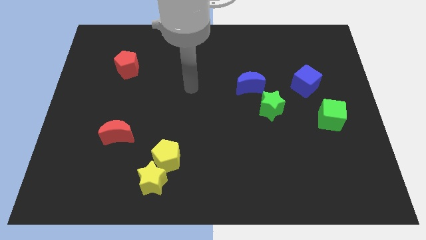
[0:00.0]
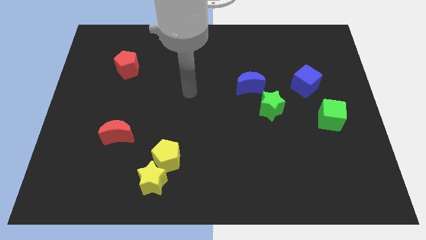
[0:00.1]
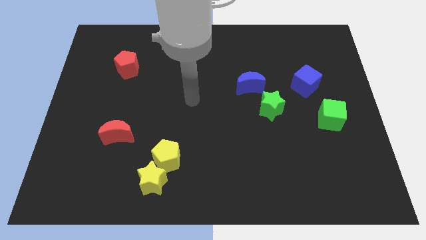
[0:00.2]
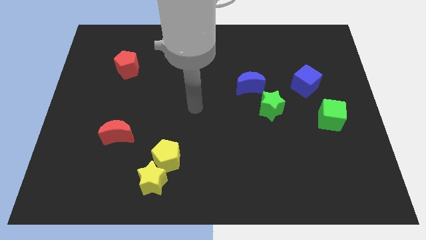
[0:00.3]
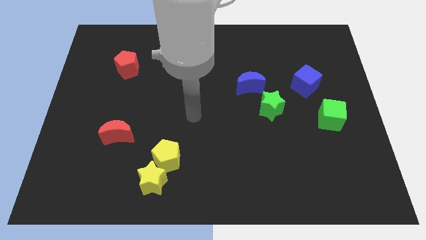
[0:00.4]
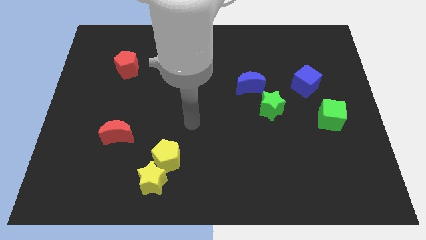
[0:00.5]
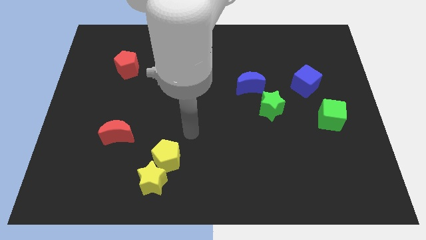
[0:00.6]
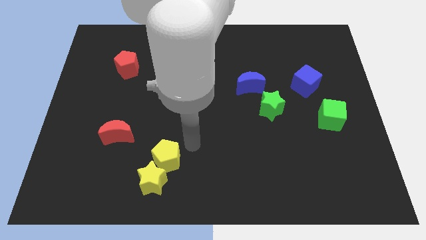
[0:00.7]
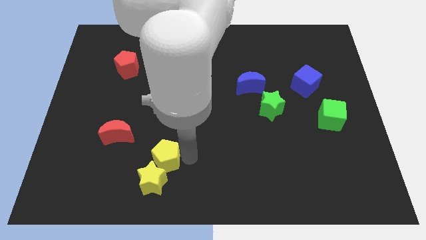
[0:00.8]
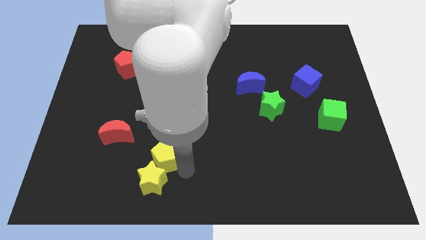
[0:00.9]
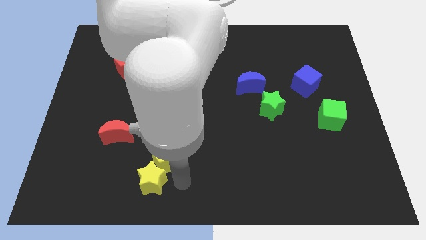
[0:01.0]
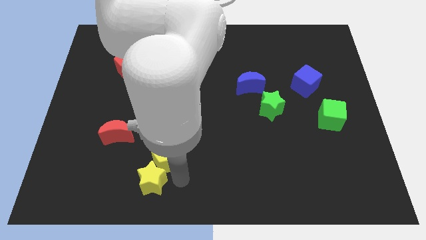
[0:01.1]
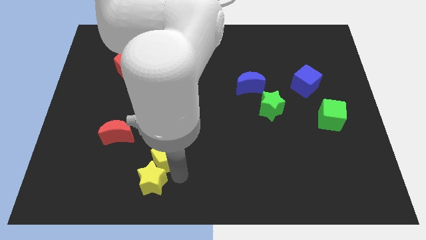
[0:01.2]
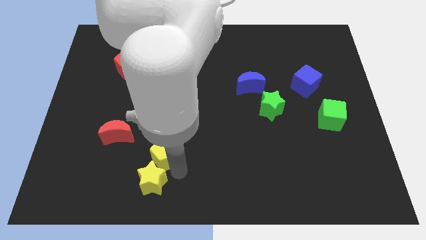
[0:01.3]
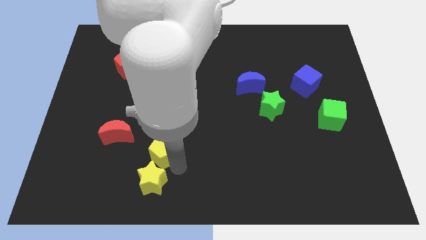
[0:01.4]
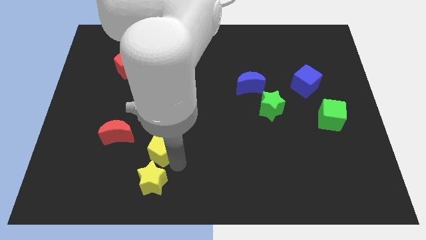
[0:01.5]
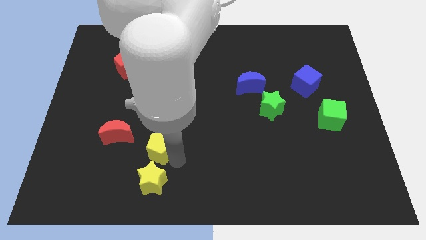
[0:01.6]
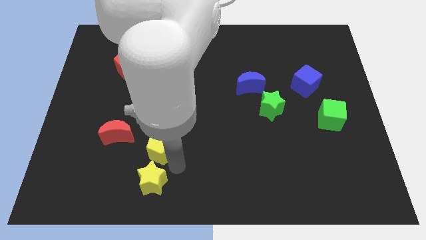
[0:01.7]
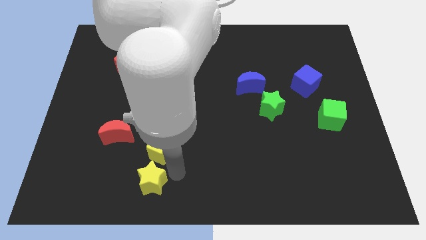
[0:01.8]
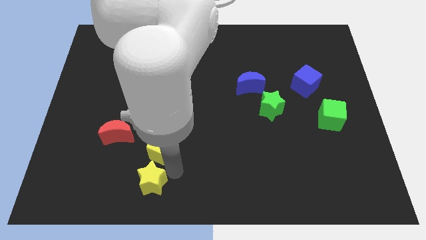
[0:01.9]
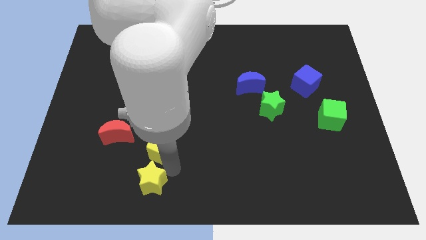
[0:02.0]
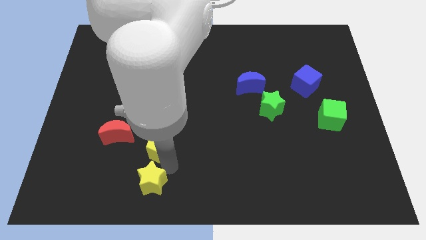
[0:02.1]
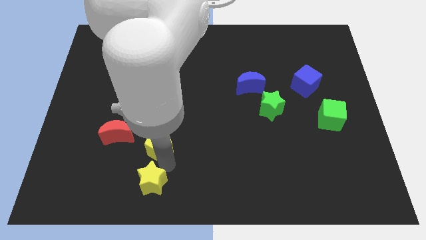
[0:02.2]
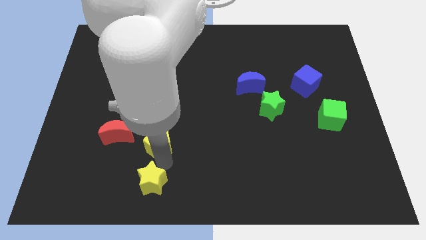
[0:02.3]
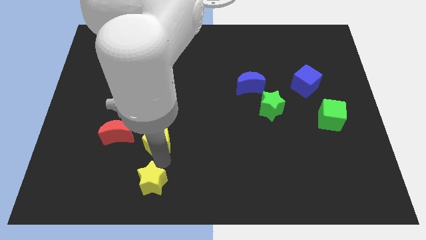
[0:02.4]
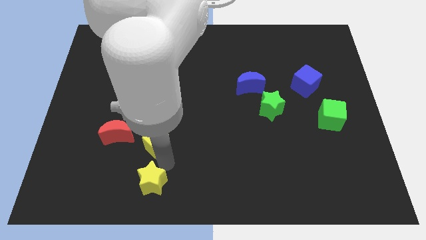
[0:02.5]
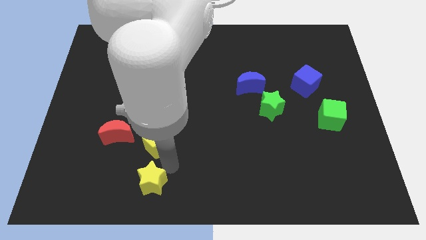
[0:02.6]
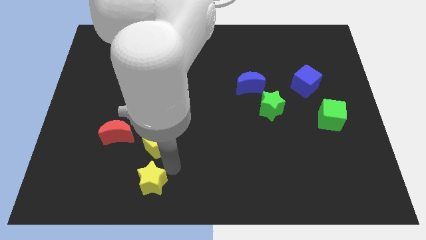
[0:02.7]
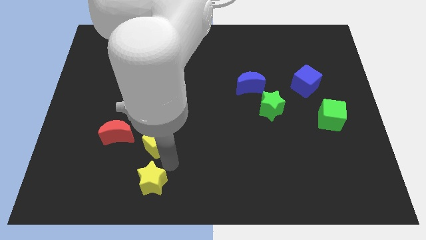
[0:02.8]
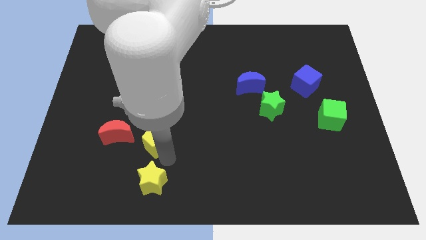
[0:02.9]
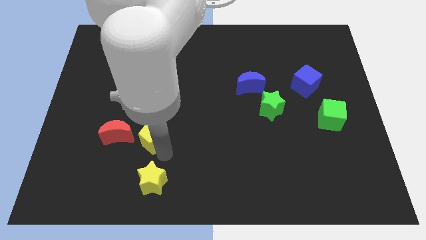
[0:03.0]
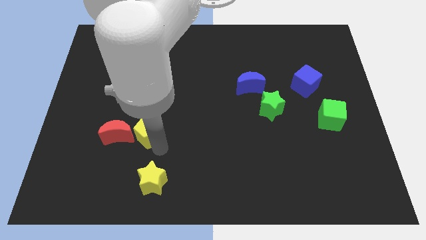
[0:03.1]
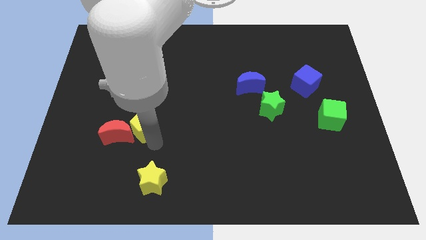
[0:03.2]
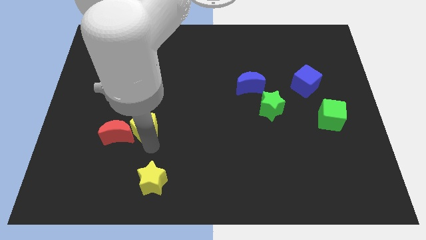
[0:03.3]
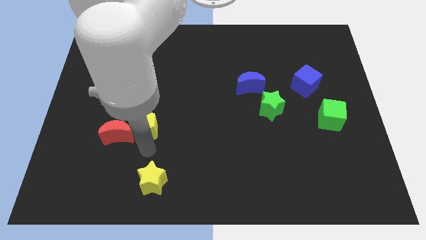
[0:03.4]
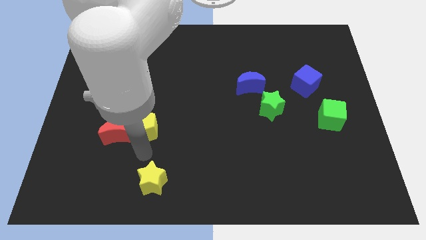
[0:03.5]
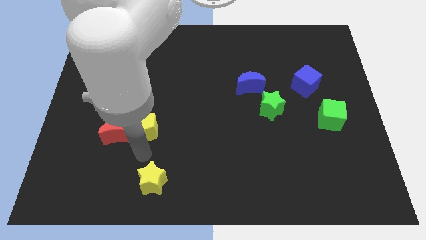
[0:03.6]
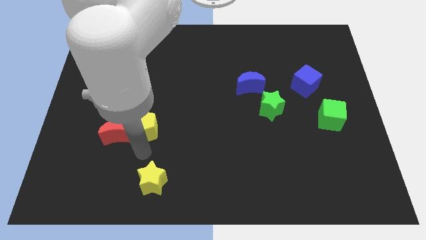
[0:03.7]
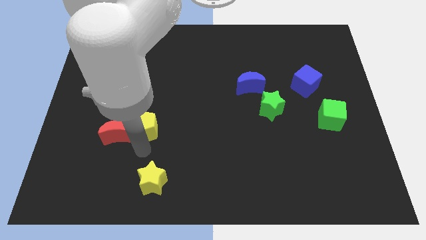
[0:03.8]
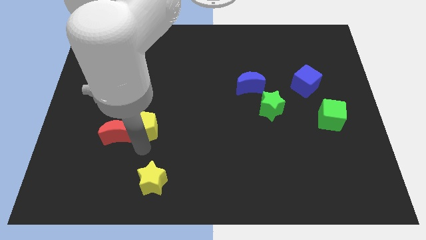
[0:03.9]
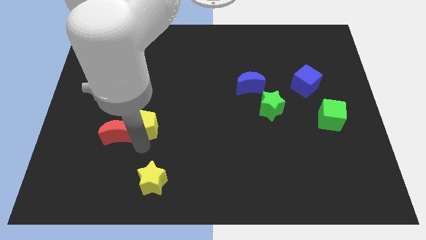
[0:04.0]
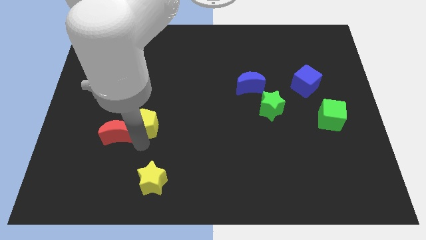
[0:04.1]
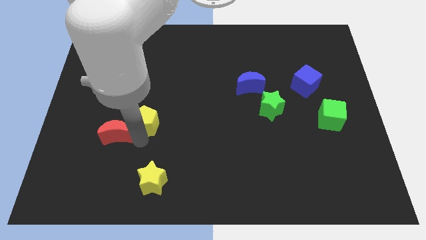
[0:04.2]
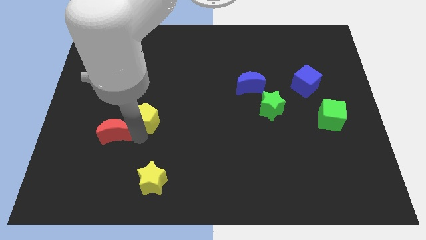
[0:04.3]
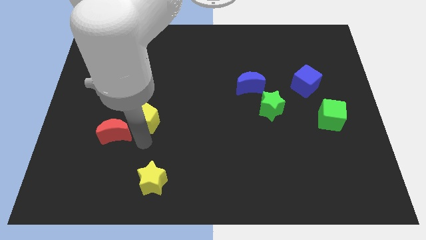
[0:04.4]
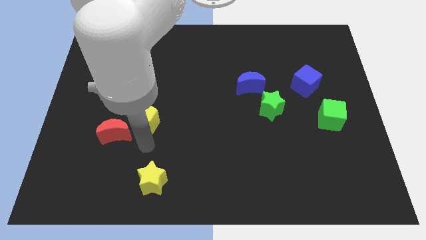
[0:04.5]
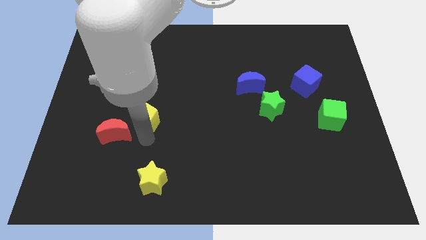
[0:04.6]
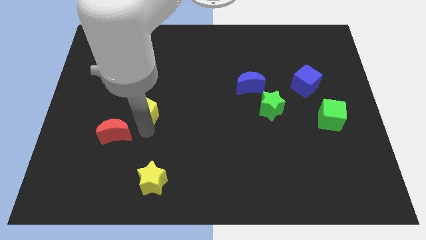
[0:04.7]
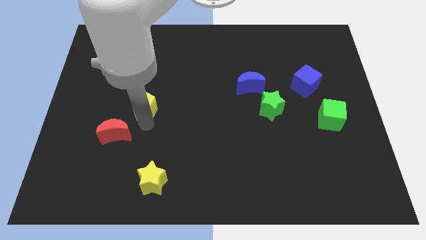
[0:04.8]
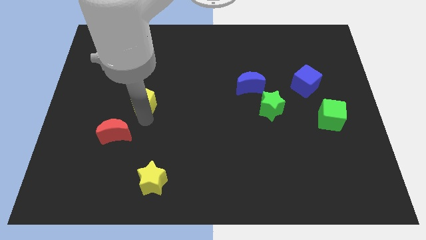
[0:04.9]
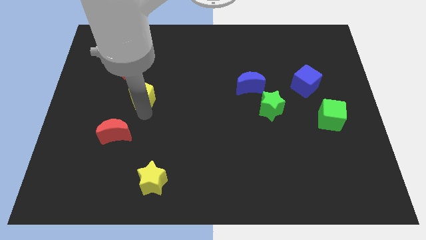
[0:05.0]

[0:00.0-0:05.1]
move the yellow pentagon to the bottom right of the red pentagon

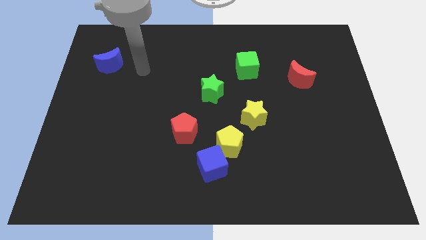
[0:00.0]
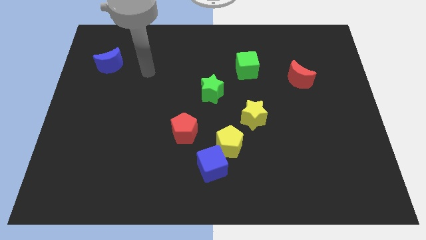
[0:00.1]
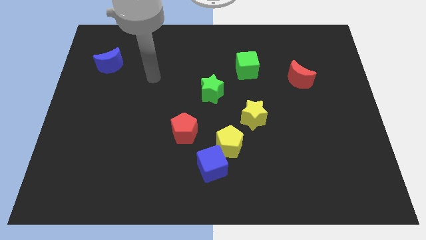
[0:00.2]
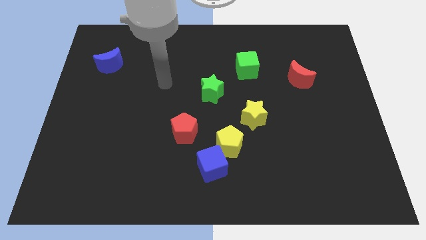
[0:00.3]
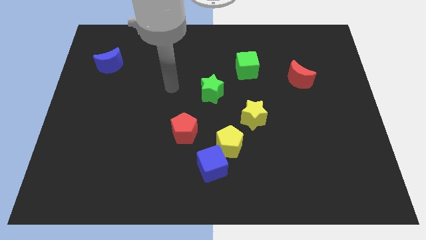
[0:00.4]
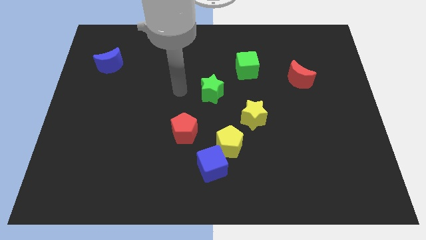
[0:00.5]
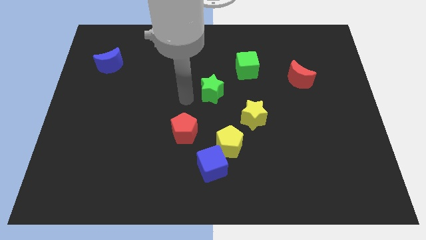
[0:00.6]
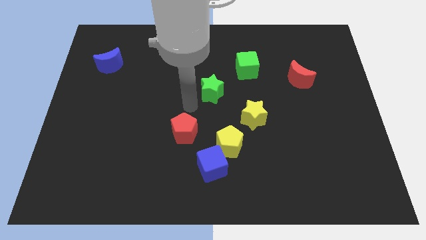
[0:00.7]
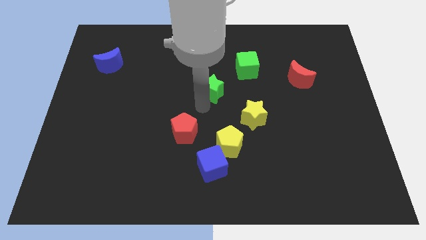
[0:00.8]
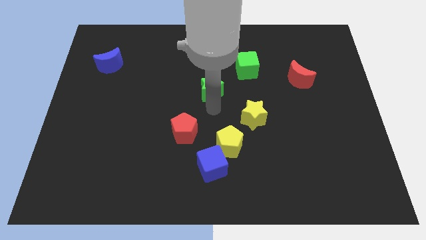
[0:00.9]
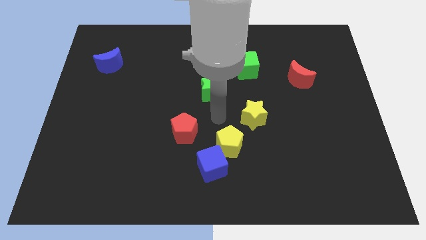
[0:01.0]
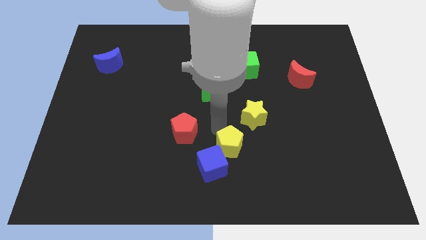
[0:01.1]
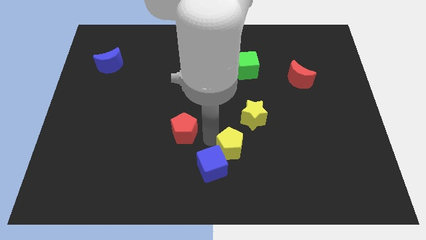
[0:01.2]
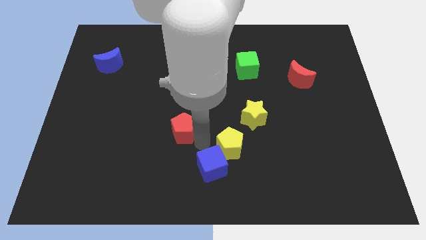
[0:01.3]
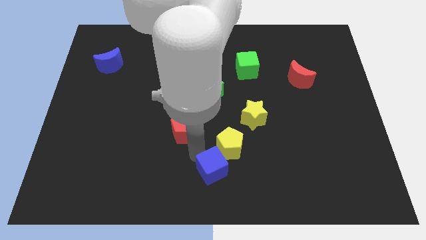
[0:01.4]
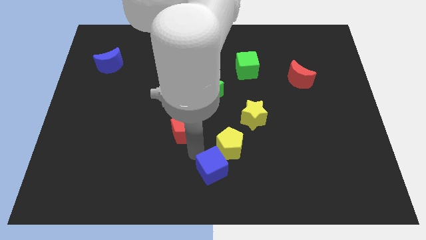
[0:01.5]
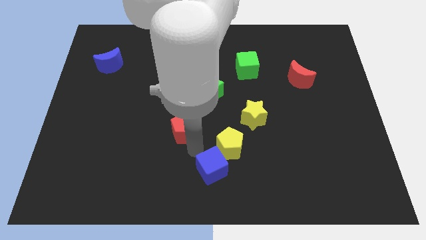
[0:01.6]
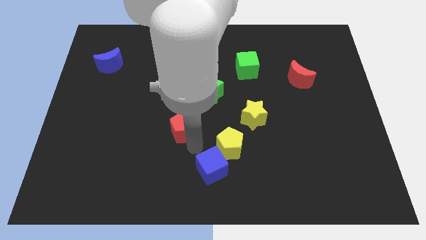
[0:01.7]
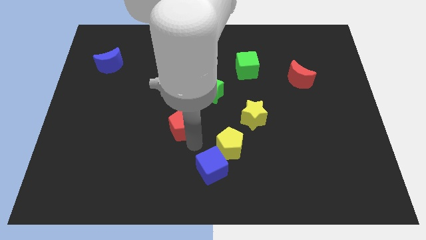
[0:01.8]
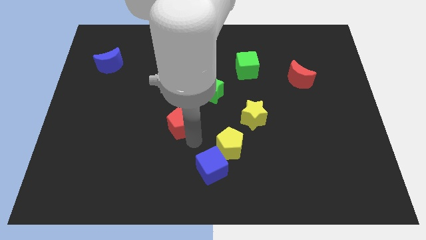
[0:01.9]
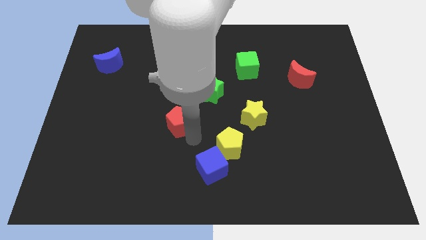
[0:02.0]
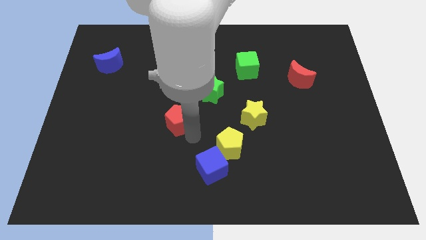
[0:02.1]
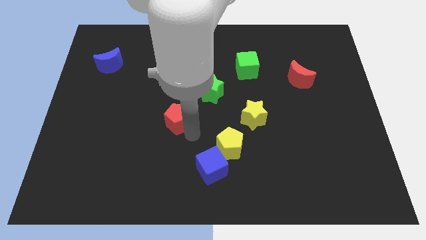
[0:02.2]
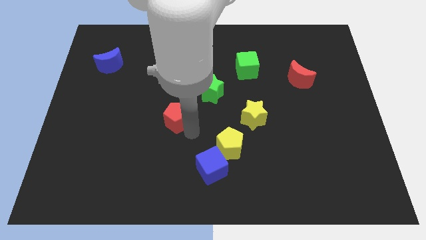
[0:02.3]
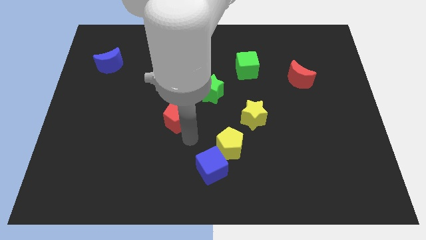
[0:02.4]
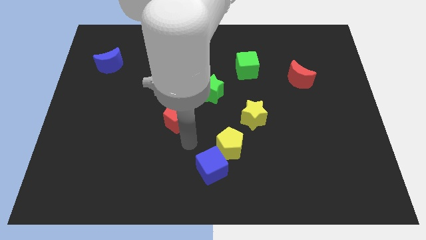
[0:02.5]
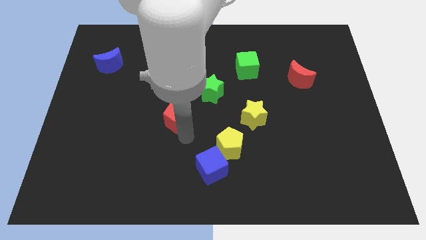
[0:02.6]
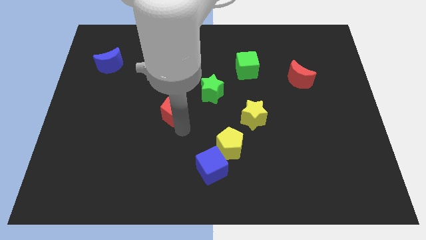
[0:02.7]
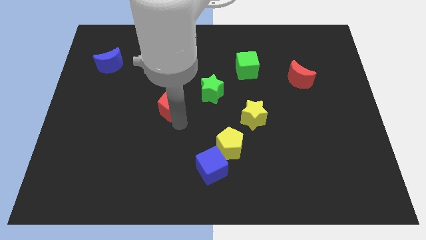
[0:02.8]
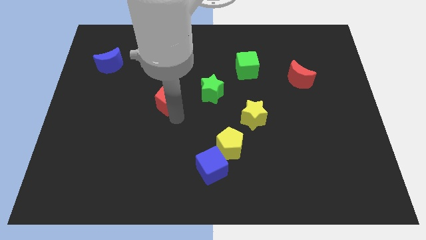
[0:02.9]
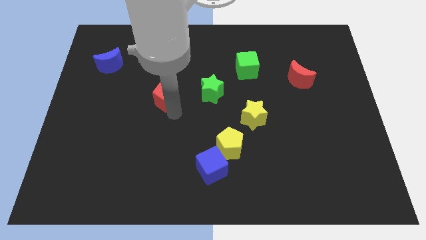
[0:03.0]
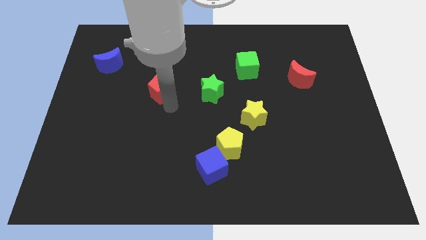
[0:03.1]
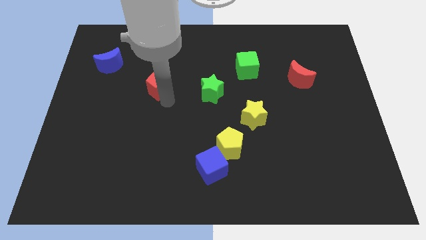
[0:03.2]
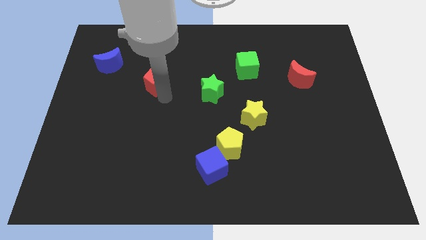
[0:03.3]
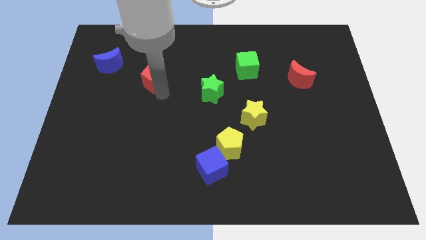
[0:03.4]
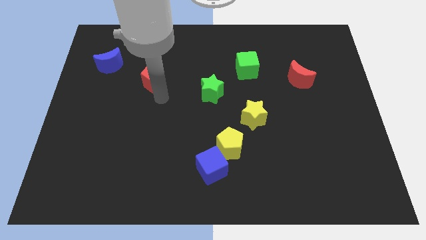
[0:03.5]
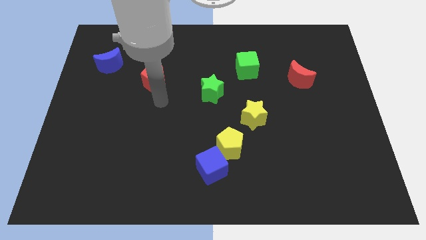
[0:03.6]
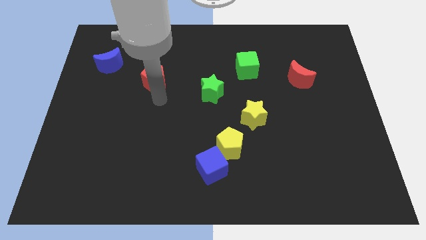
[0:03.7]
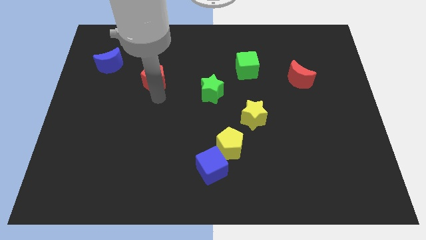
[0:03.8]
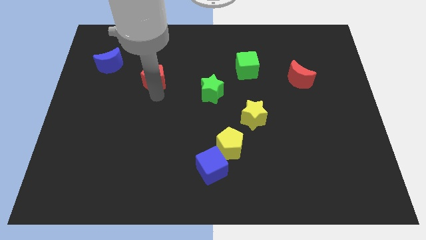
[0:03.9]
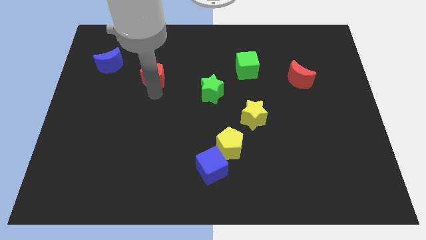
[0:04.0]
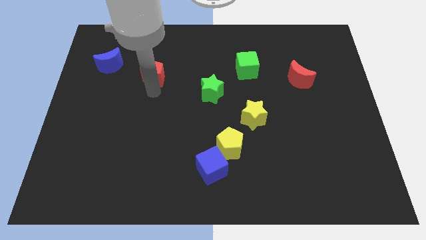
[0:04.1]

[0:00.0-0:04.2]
move the red pentagon right of the blue moon
